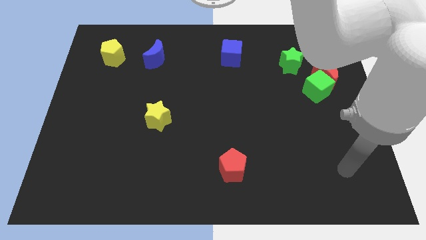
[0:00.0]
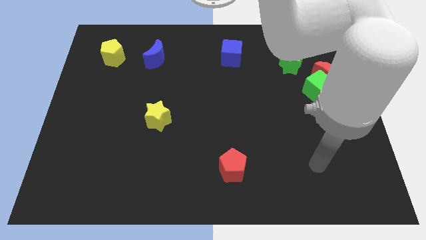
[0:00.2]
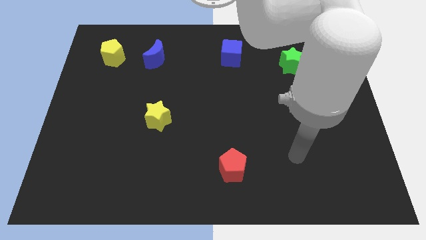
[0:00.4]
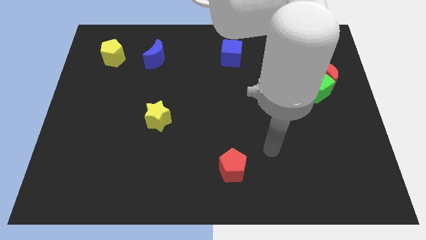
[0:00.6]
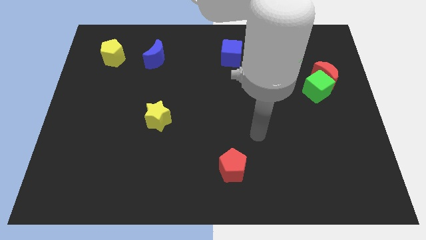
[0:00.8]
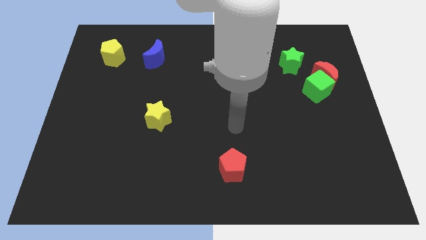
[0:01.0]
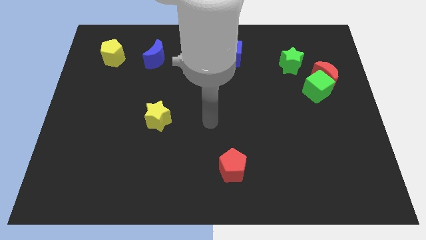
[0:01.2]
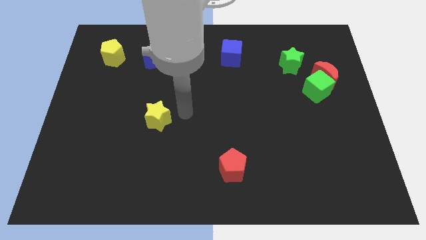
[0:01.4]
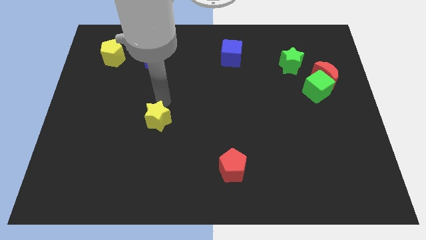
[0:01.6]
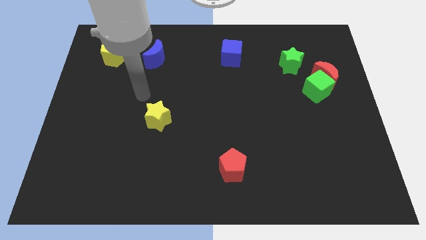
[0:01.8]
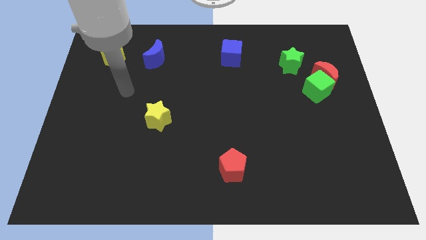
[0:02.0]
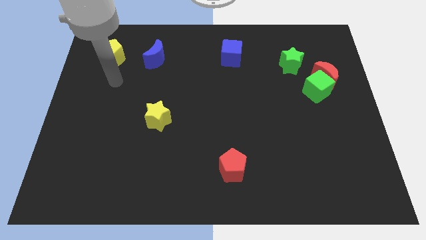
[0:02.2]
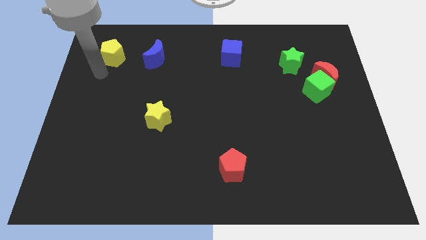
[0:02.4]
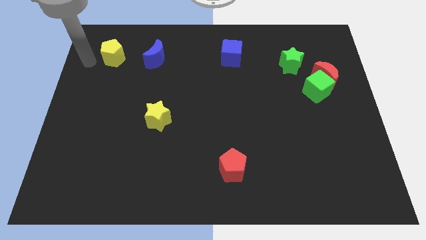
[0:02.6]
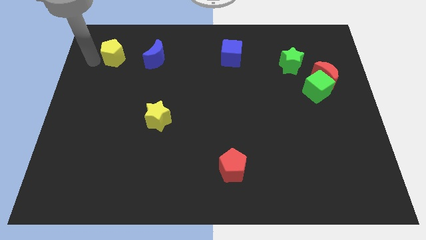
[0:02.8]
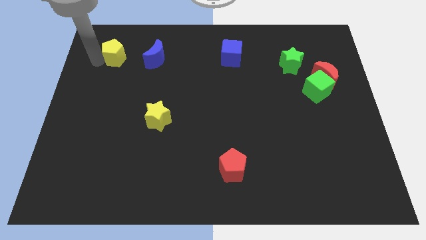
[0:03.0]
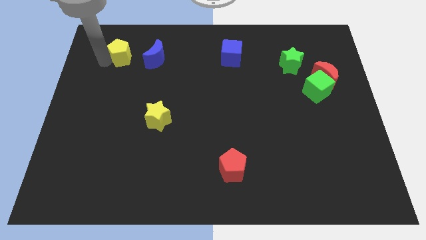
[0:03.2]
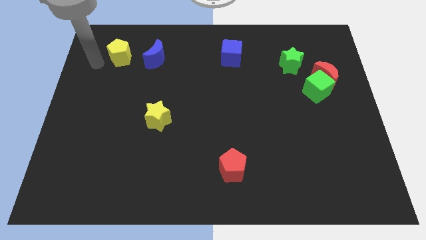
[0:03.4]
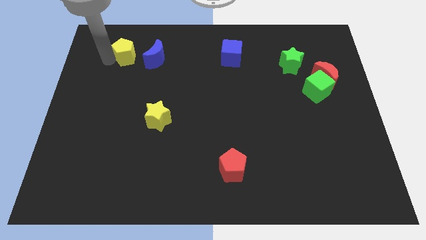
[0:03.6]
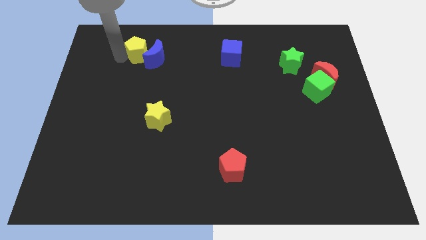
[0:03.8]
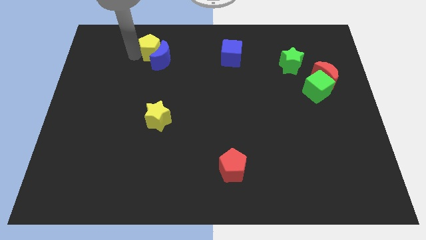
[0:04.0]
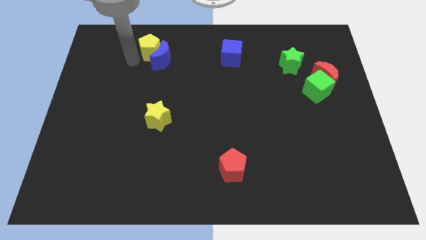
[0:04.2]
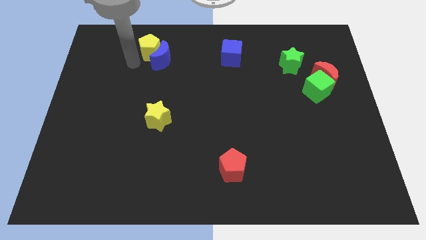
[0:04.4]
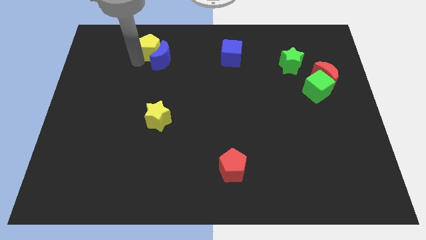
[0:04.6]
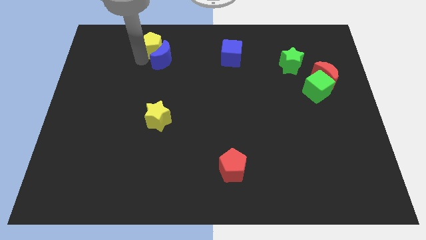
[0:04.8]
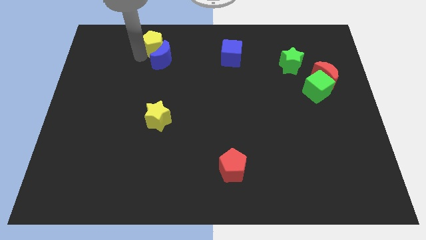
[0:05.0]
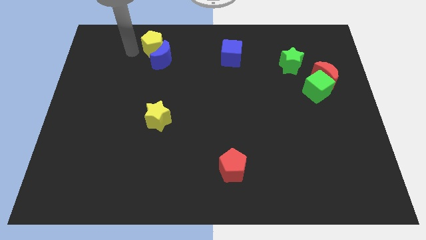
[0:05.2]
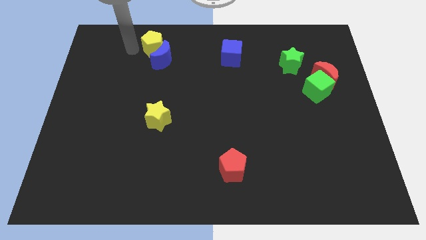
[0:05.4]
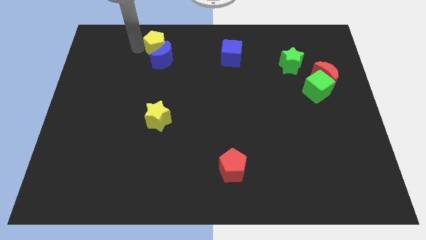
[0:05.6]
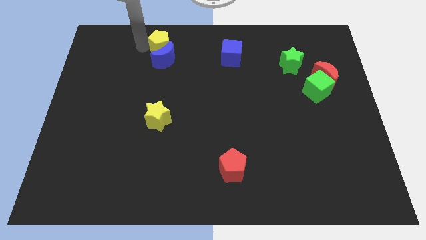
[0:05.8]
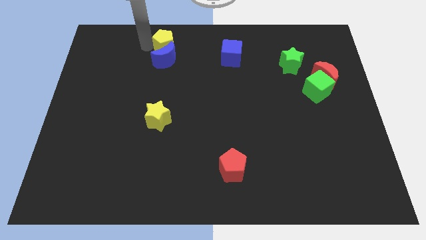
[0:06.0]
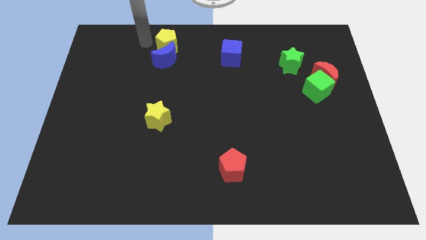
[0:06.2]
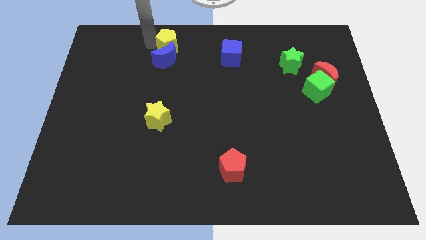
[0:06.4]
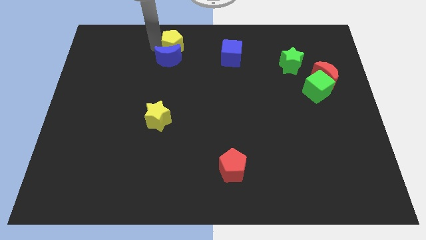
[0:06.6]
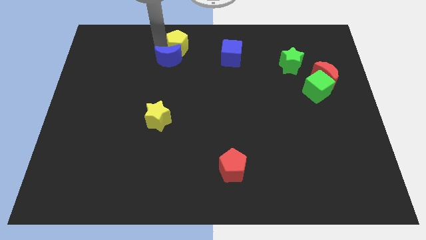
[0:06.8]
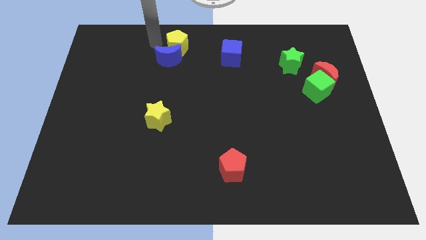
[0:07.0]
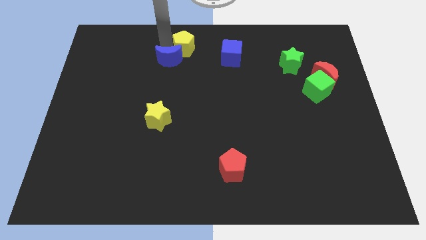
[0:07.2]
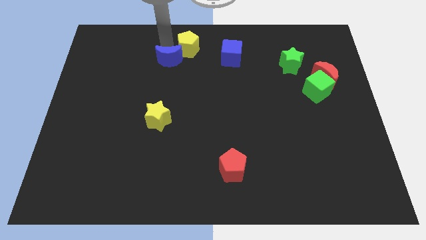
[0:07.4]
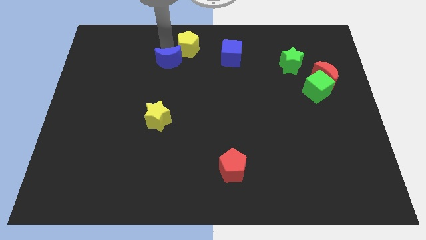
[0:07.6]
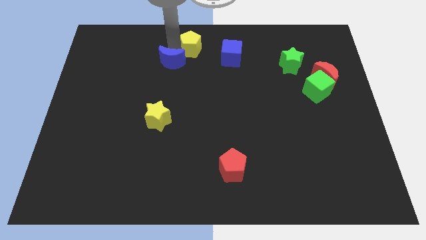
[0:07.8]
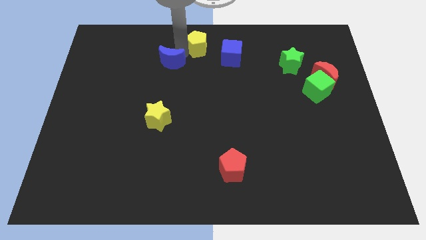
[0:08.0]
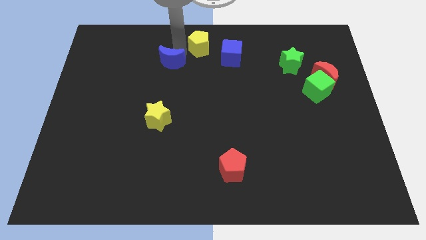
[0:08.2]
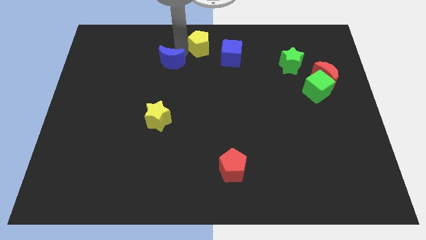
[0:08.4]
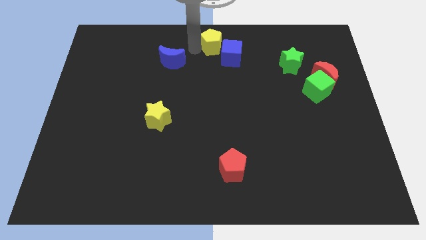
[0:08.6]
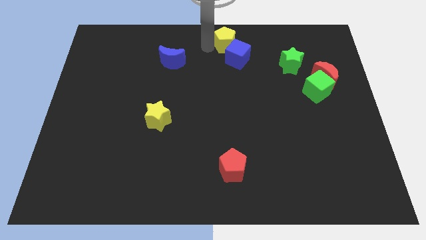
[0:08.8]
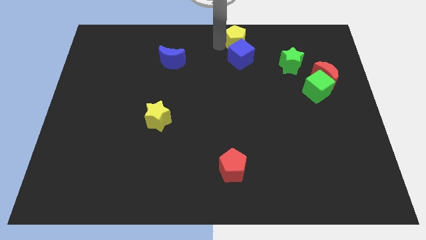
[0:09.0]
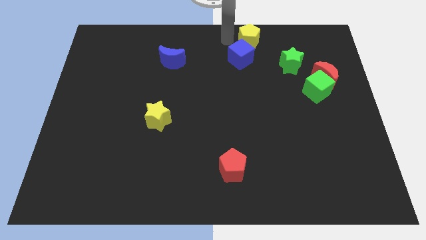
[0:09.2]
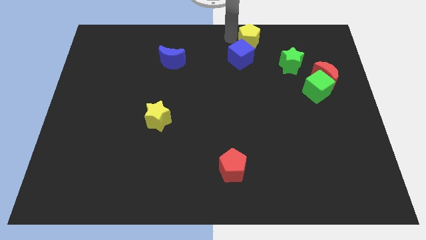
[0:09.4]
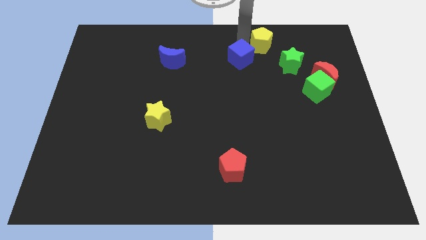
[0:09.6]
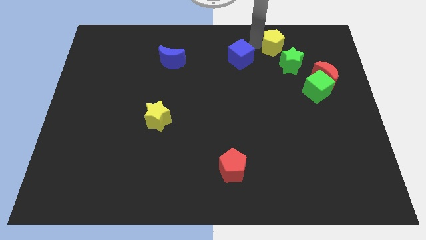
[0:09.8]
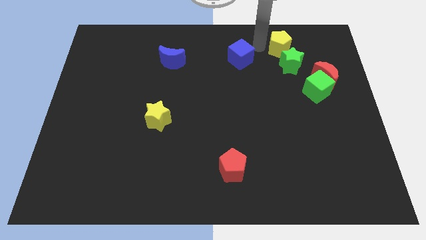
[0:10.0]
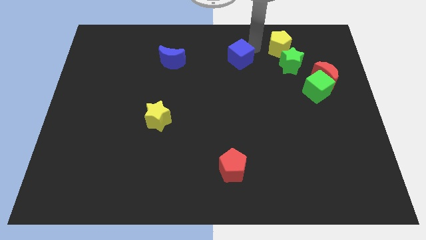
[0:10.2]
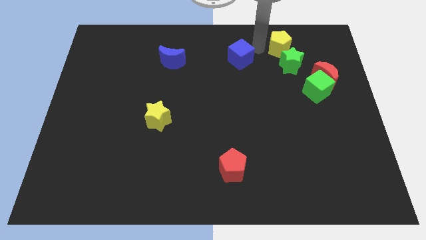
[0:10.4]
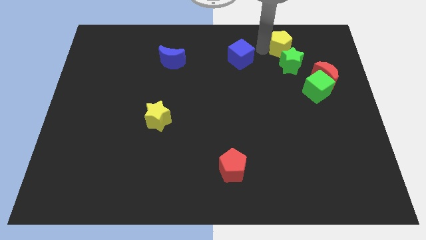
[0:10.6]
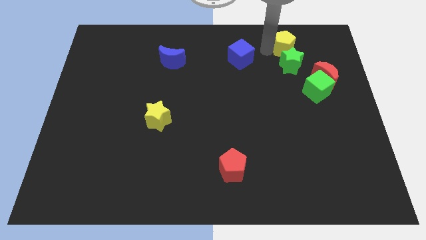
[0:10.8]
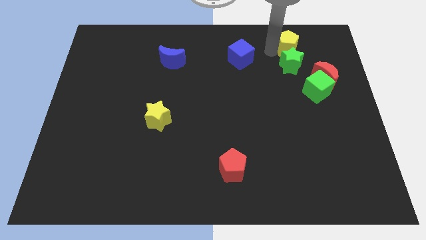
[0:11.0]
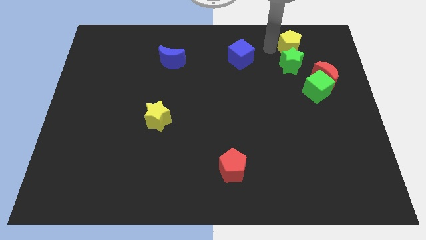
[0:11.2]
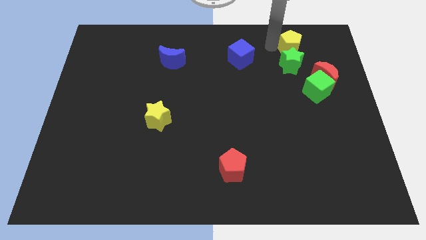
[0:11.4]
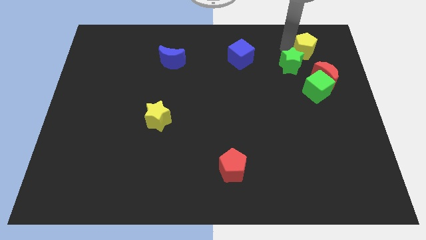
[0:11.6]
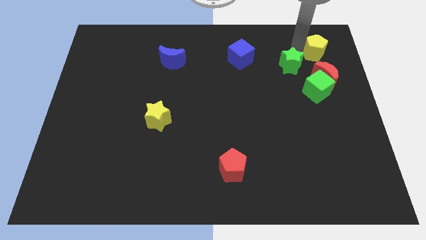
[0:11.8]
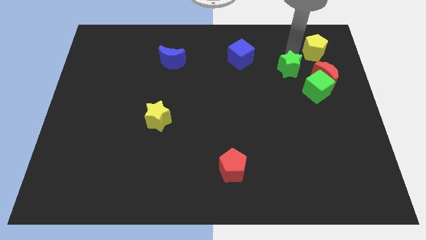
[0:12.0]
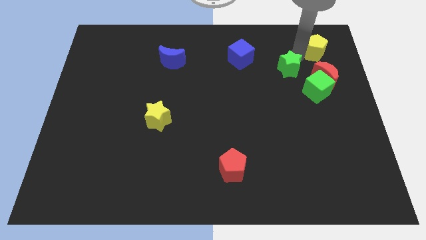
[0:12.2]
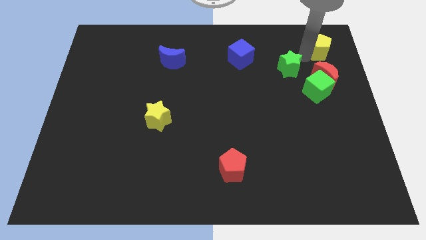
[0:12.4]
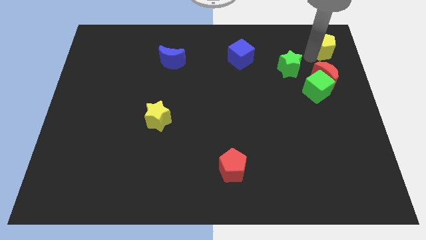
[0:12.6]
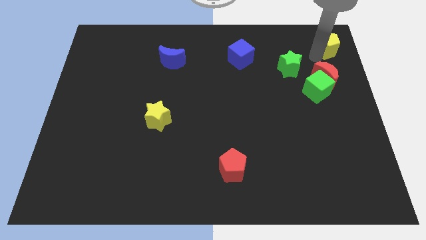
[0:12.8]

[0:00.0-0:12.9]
put the yellow pentagon to the top right of the board
